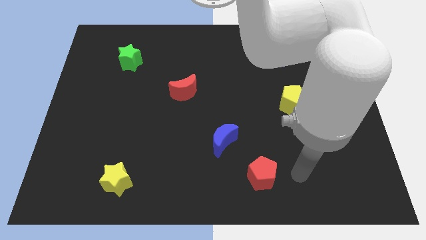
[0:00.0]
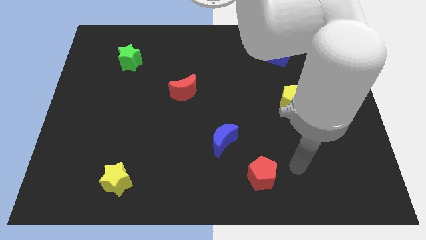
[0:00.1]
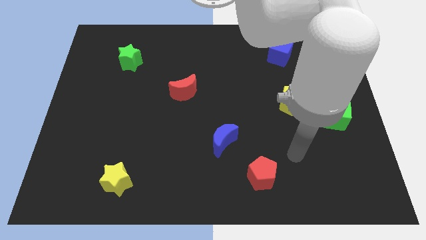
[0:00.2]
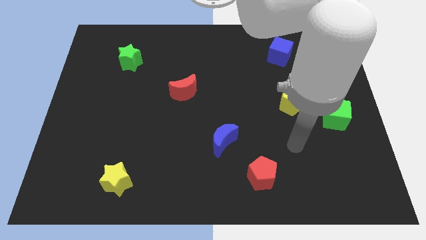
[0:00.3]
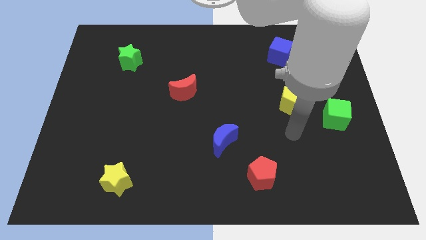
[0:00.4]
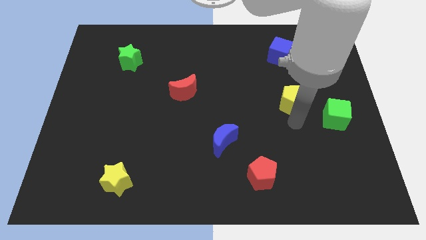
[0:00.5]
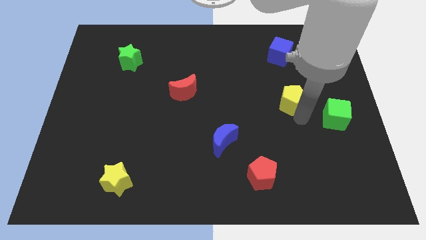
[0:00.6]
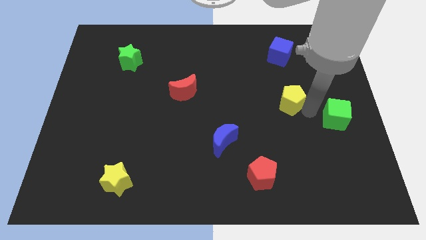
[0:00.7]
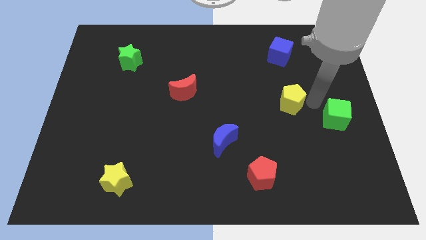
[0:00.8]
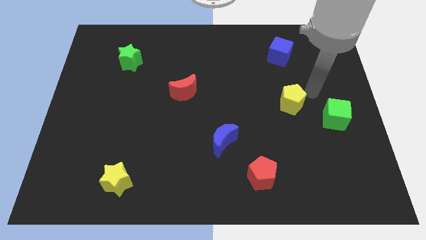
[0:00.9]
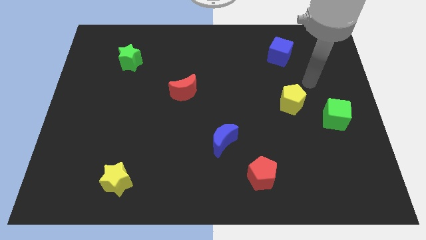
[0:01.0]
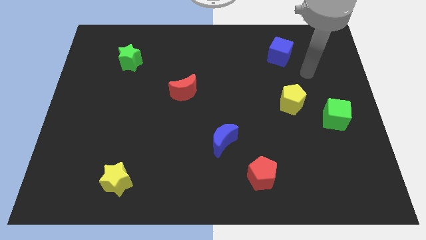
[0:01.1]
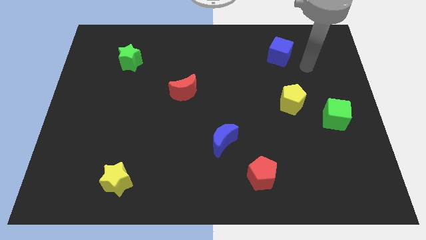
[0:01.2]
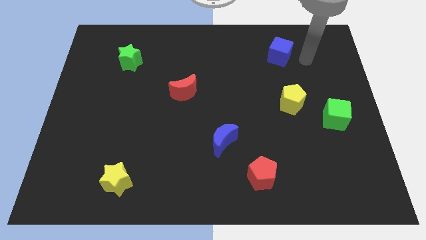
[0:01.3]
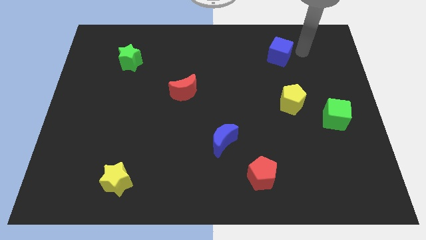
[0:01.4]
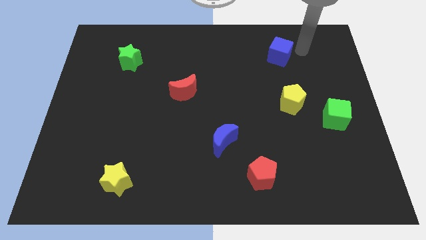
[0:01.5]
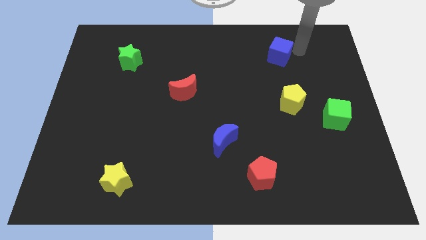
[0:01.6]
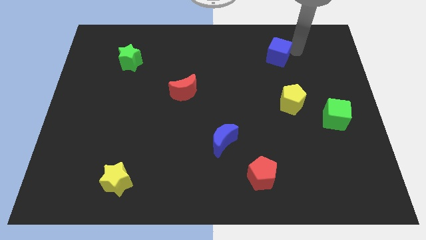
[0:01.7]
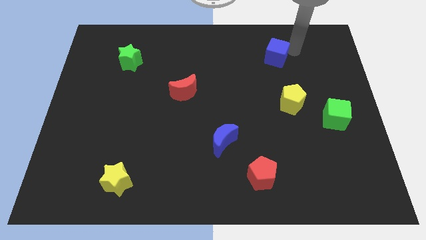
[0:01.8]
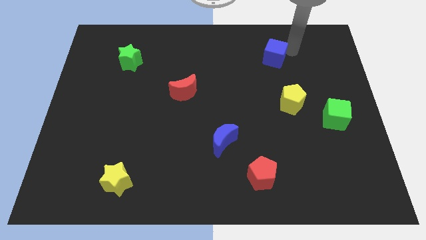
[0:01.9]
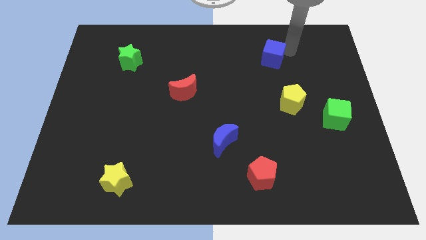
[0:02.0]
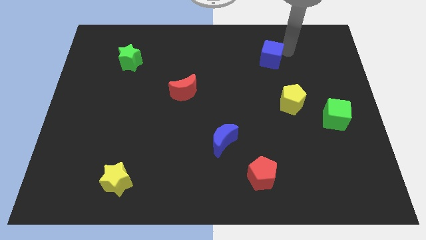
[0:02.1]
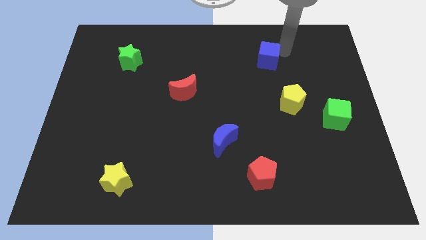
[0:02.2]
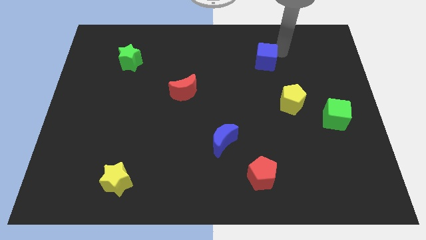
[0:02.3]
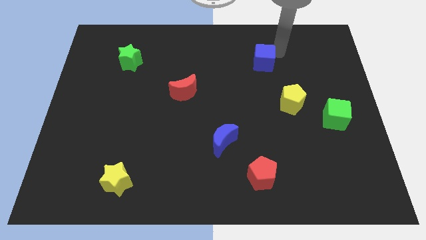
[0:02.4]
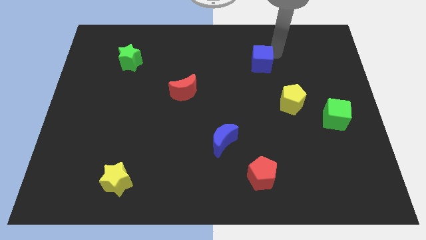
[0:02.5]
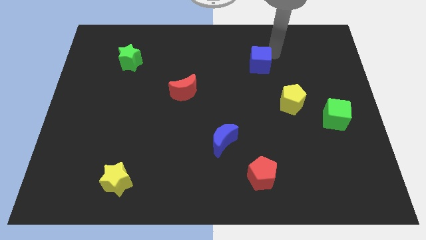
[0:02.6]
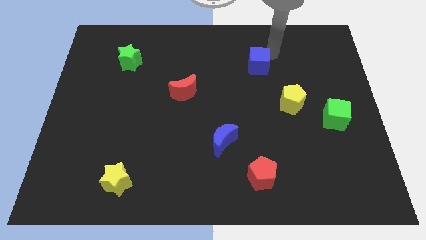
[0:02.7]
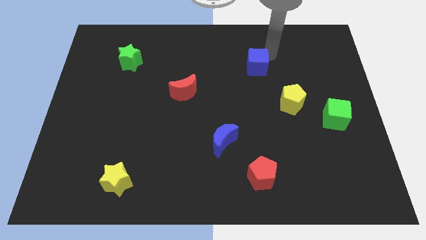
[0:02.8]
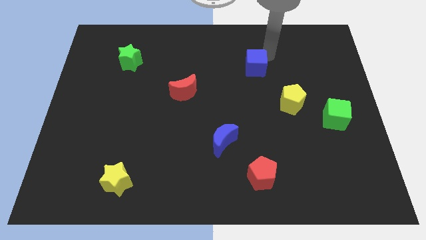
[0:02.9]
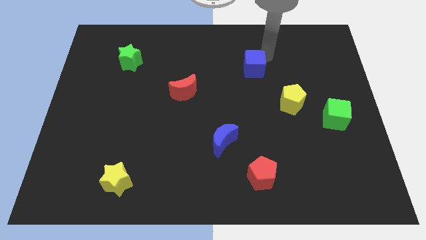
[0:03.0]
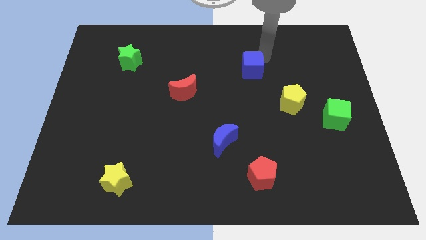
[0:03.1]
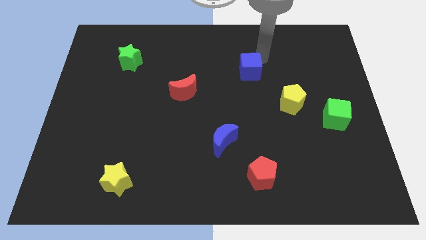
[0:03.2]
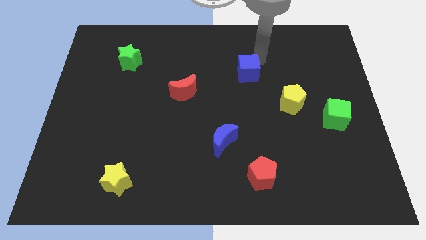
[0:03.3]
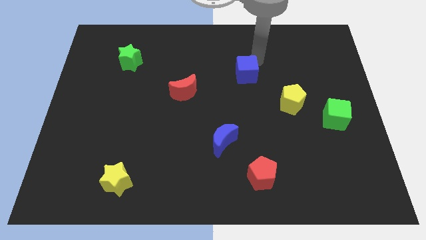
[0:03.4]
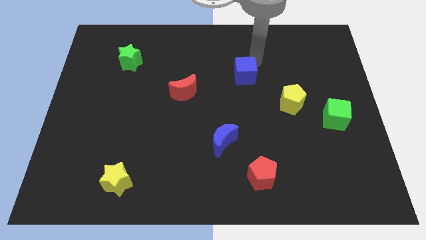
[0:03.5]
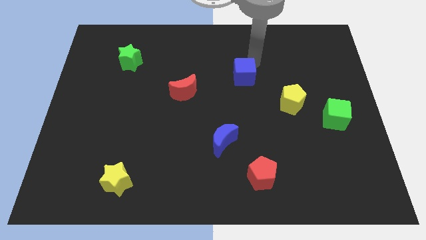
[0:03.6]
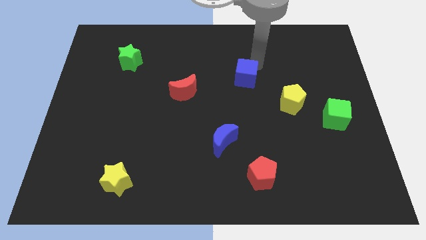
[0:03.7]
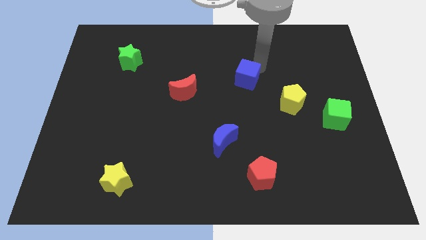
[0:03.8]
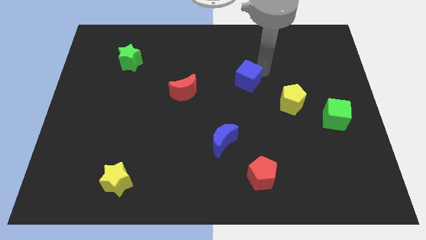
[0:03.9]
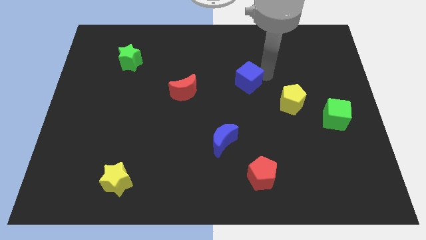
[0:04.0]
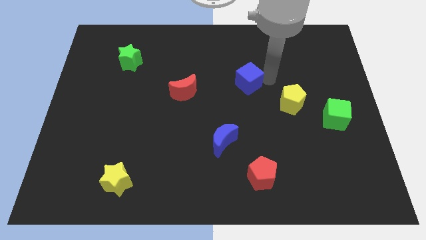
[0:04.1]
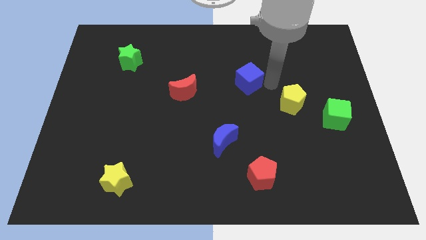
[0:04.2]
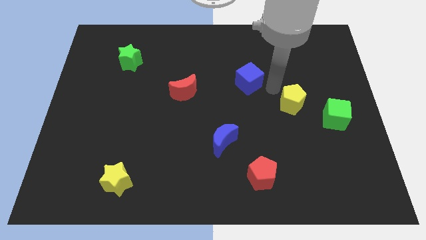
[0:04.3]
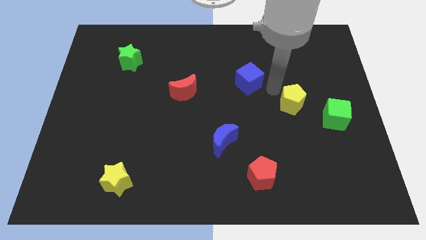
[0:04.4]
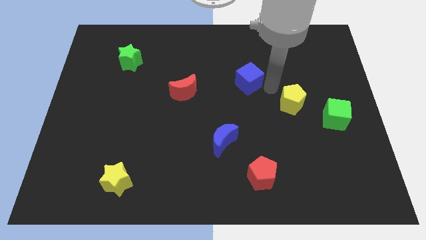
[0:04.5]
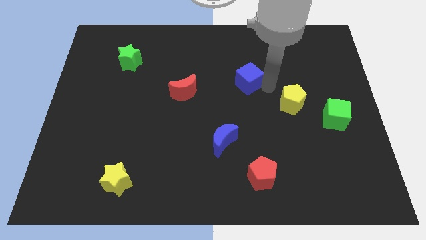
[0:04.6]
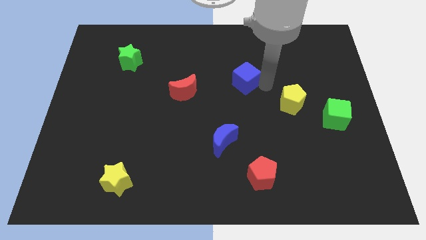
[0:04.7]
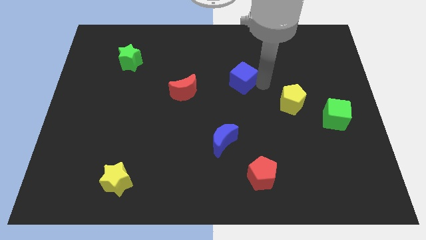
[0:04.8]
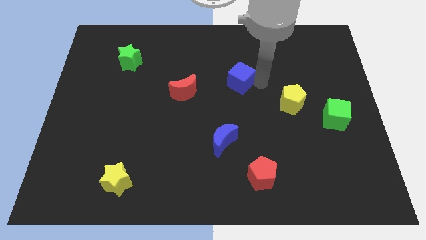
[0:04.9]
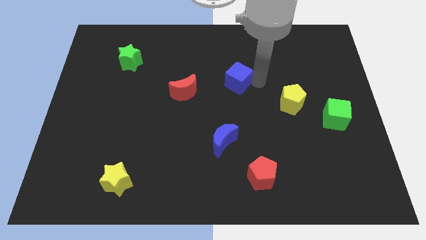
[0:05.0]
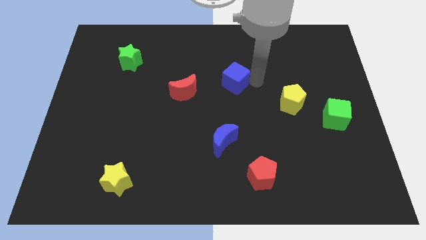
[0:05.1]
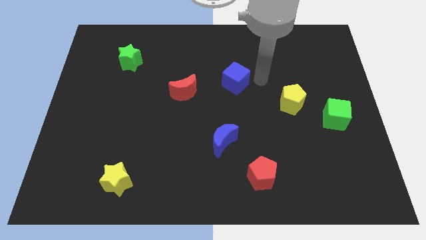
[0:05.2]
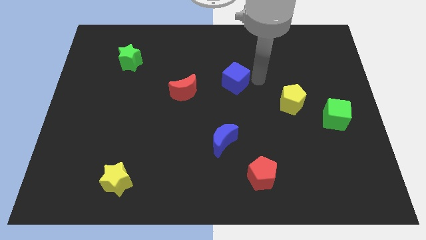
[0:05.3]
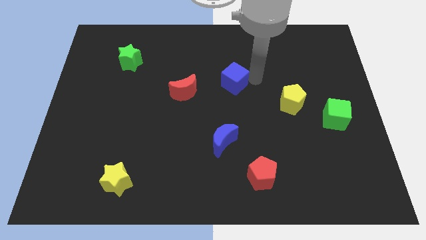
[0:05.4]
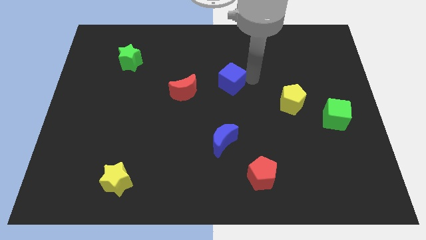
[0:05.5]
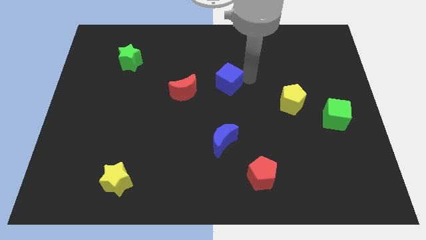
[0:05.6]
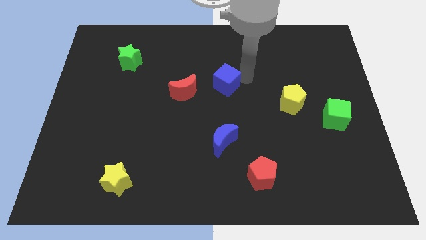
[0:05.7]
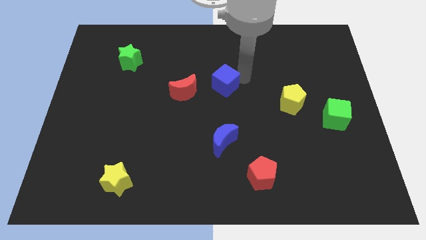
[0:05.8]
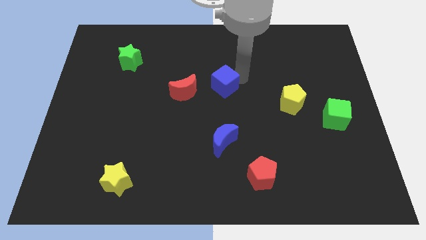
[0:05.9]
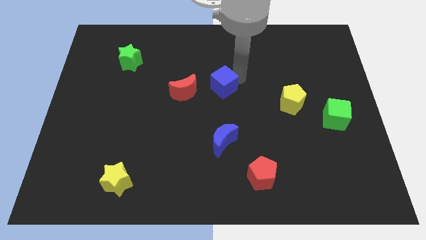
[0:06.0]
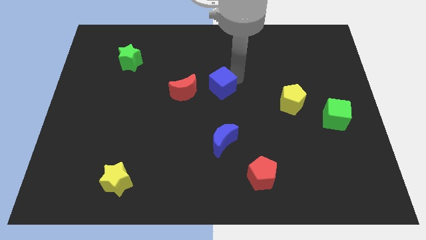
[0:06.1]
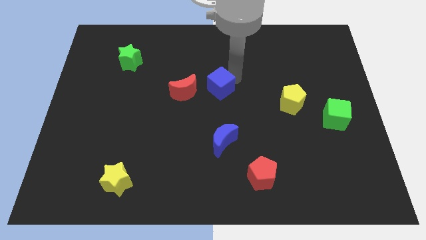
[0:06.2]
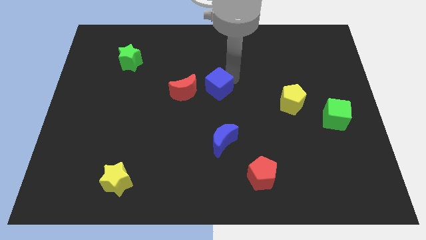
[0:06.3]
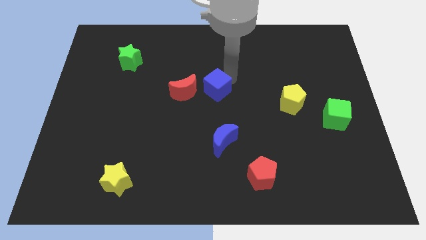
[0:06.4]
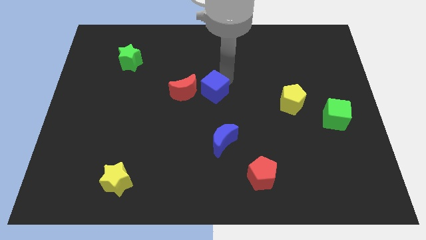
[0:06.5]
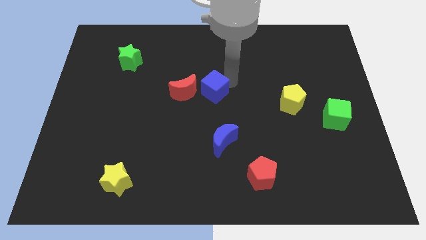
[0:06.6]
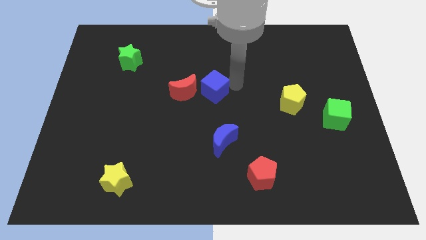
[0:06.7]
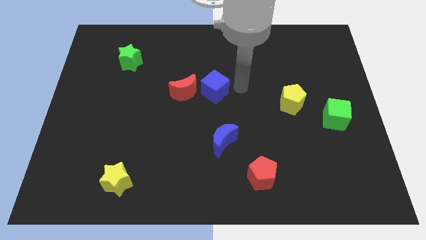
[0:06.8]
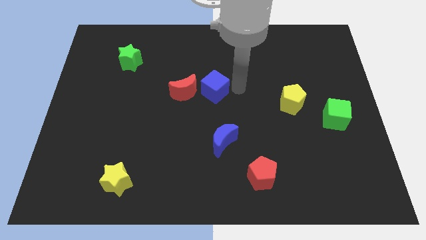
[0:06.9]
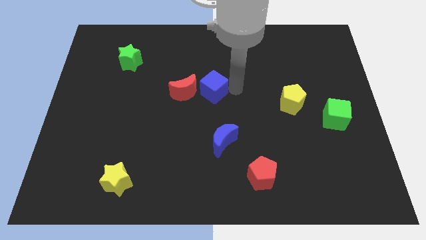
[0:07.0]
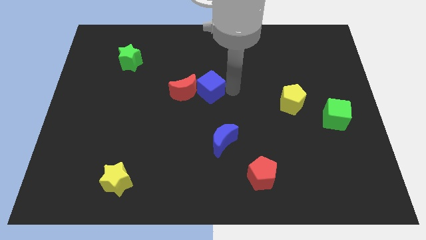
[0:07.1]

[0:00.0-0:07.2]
put the blue cube towards the red moon

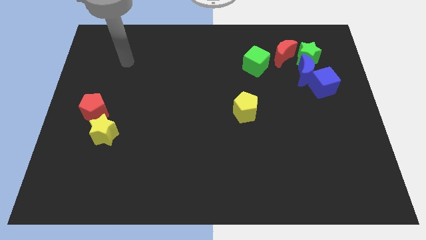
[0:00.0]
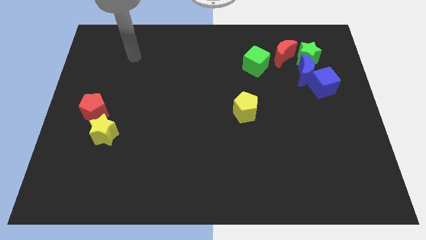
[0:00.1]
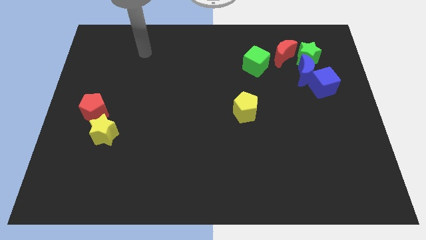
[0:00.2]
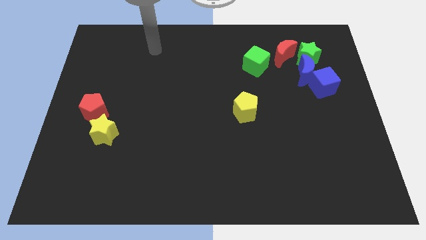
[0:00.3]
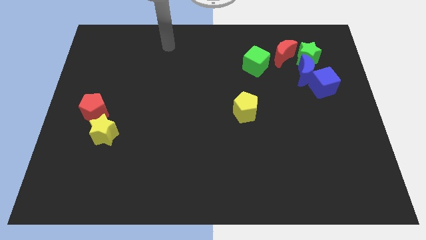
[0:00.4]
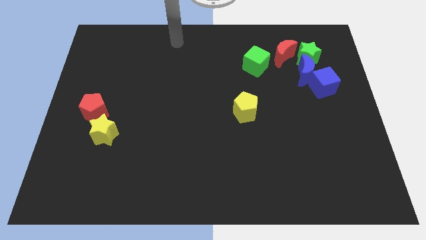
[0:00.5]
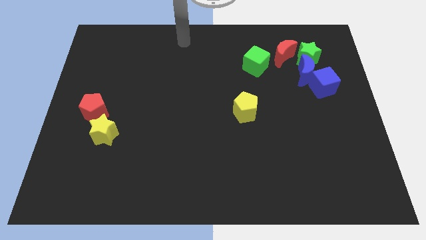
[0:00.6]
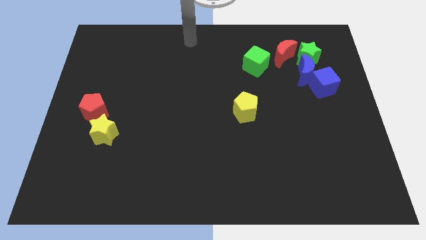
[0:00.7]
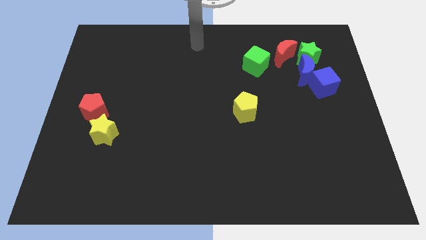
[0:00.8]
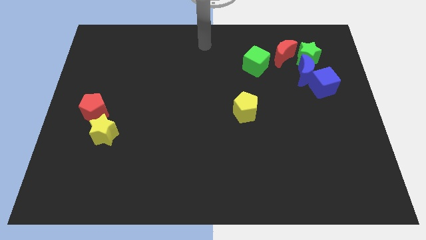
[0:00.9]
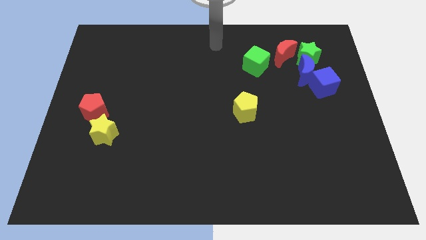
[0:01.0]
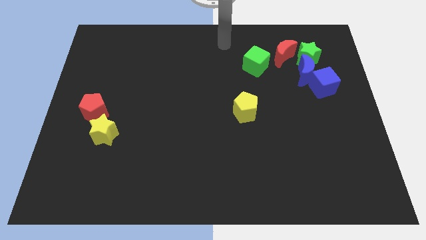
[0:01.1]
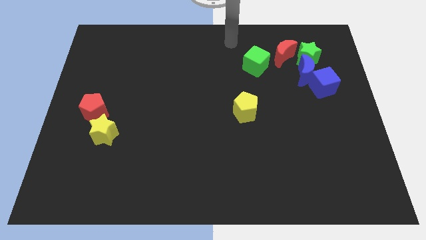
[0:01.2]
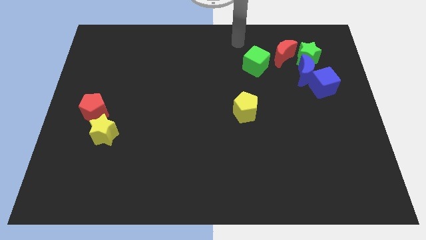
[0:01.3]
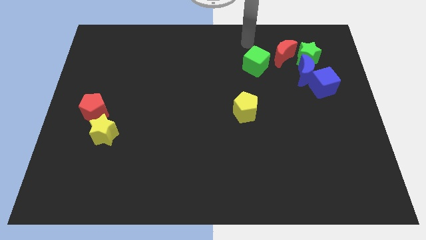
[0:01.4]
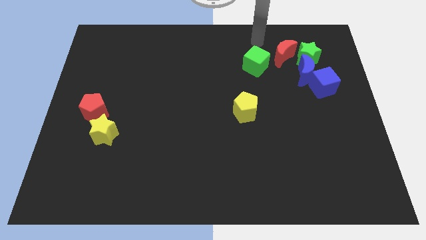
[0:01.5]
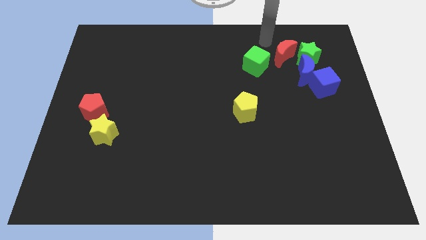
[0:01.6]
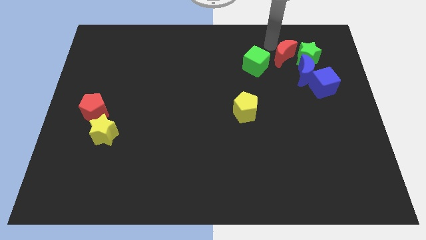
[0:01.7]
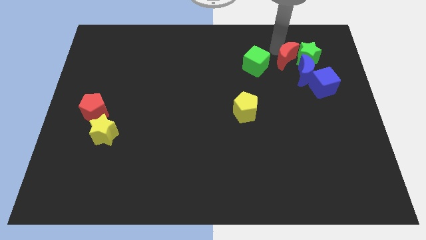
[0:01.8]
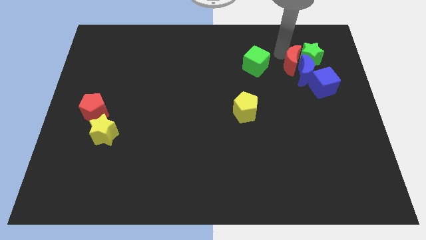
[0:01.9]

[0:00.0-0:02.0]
push the red moon close to the blue moon
